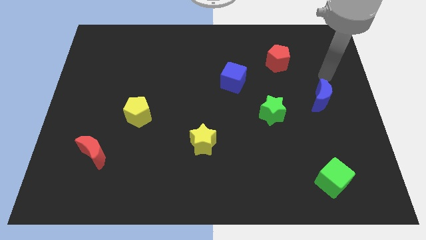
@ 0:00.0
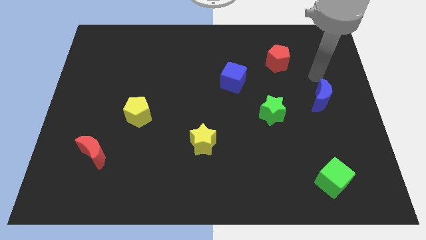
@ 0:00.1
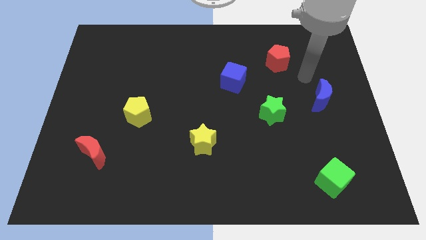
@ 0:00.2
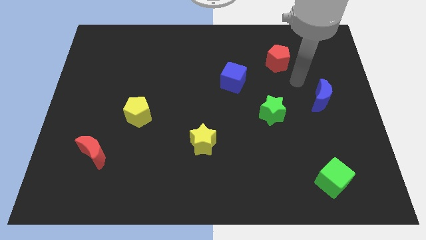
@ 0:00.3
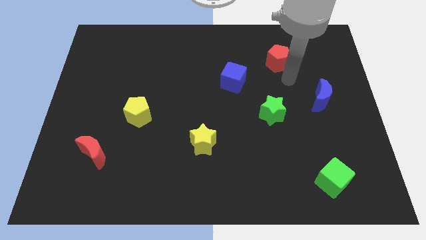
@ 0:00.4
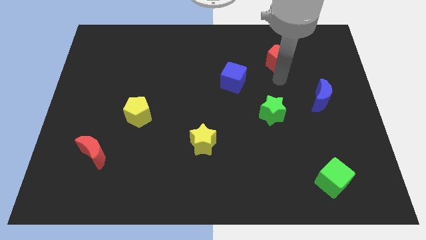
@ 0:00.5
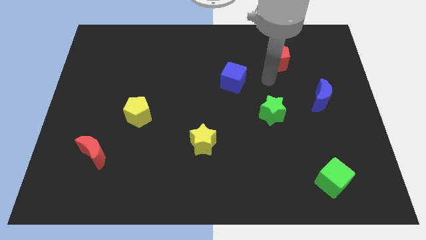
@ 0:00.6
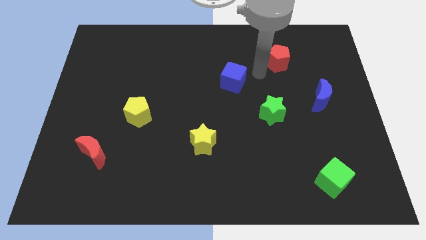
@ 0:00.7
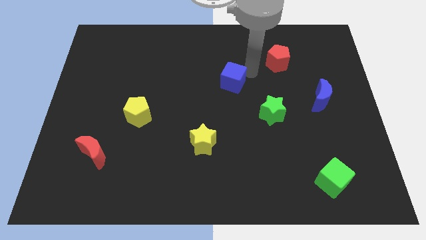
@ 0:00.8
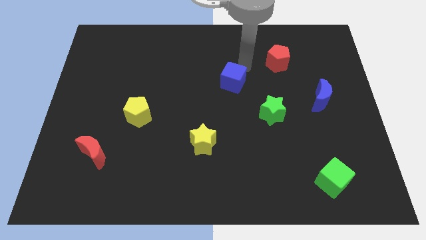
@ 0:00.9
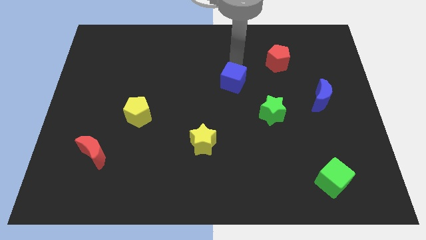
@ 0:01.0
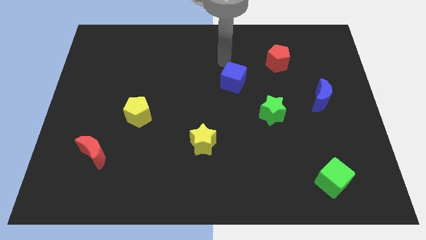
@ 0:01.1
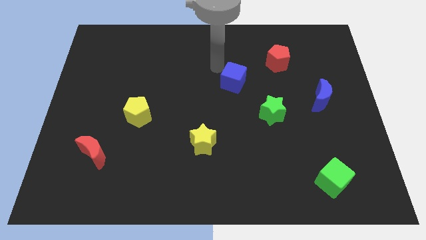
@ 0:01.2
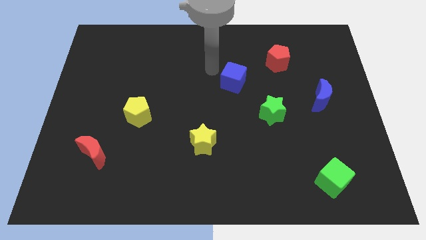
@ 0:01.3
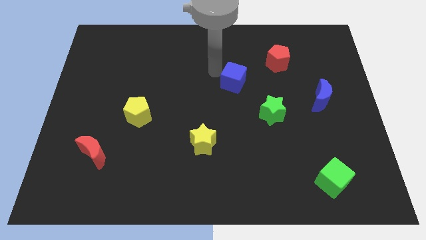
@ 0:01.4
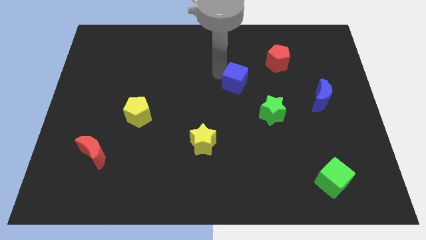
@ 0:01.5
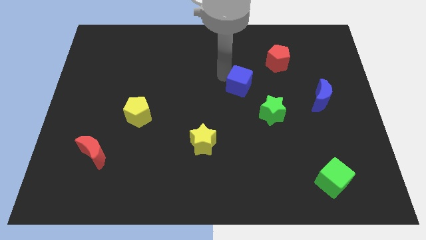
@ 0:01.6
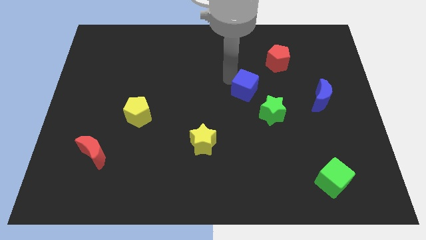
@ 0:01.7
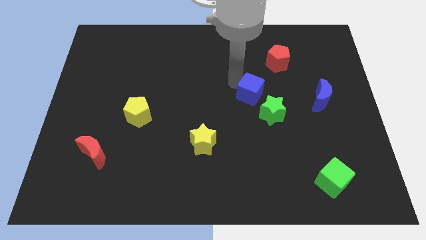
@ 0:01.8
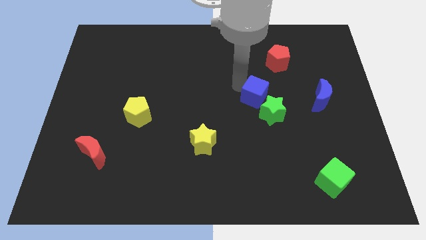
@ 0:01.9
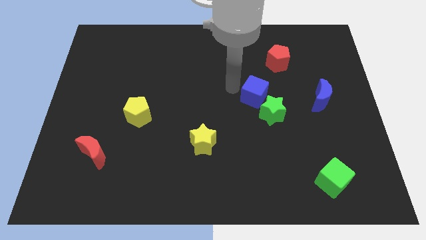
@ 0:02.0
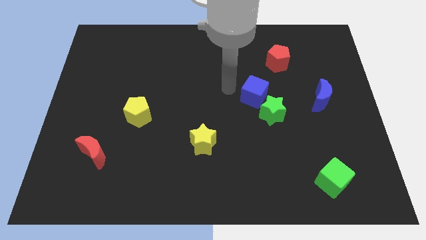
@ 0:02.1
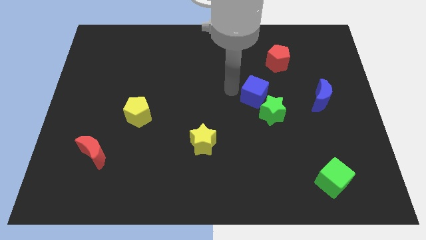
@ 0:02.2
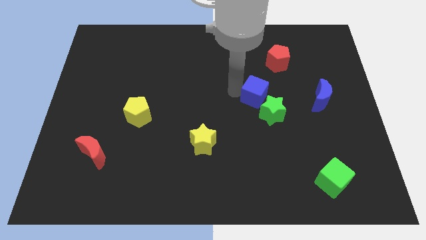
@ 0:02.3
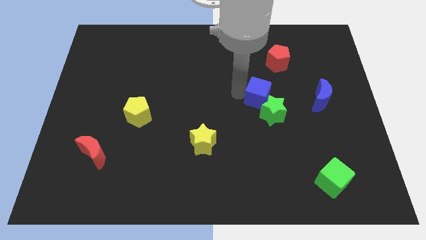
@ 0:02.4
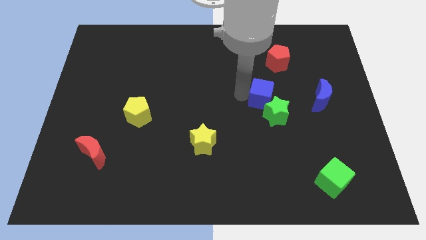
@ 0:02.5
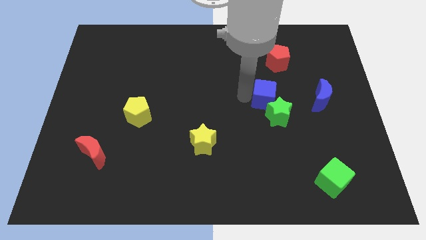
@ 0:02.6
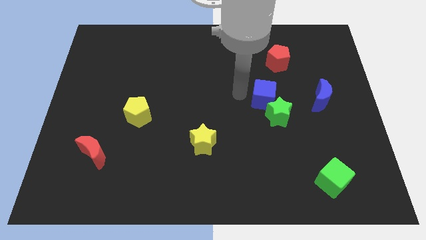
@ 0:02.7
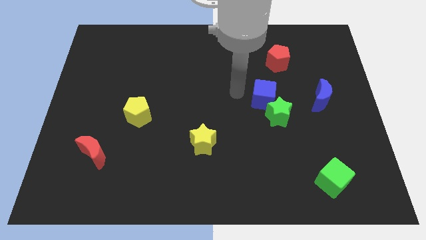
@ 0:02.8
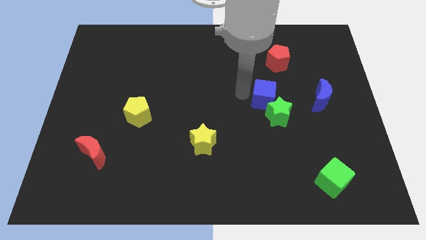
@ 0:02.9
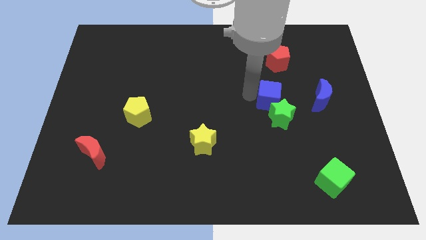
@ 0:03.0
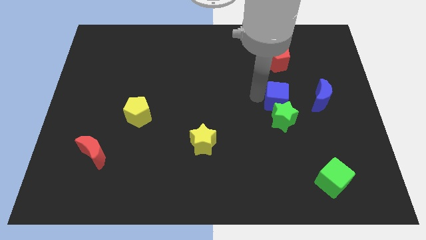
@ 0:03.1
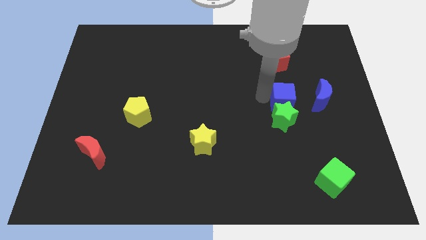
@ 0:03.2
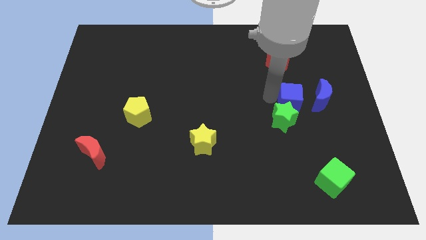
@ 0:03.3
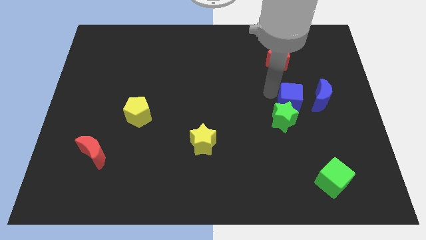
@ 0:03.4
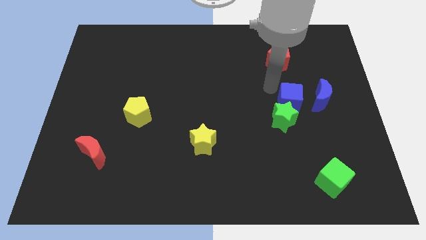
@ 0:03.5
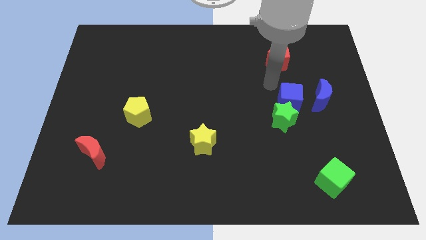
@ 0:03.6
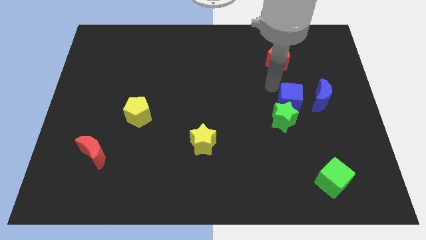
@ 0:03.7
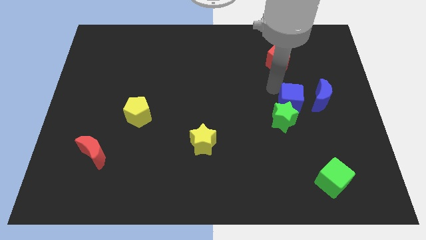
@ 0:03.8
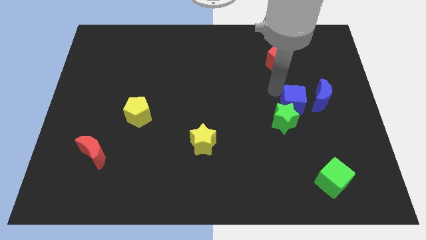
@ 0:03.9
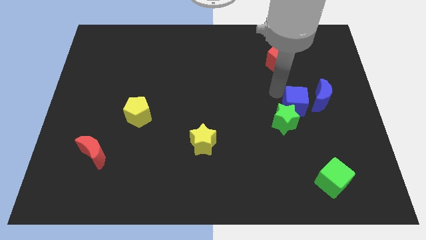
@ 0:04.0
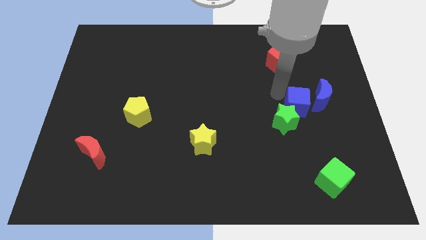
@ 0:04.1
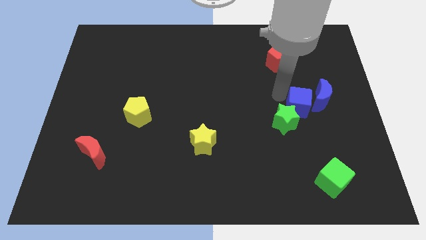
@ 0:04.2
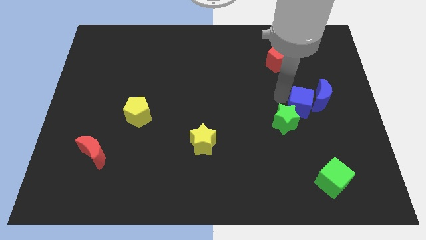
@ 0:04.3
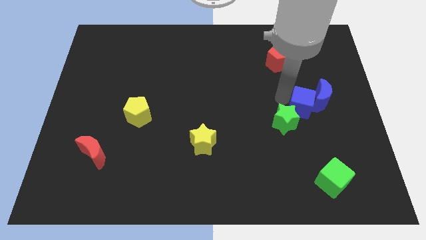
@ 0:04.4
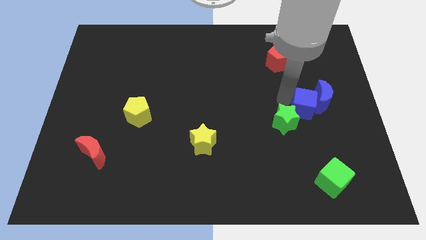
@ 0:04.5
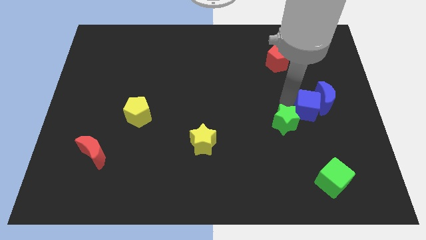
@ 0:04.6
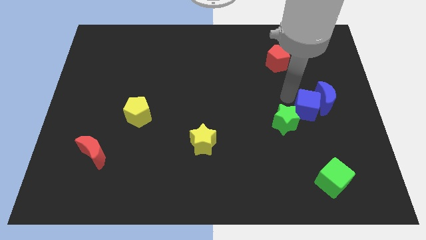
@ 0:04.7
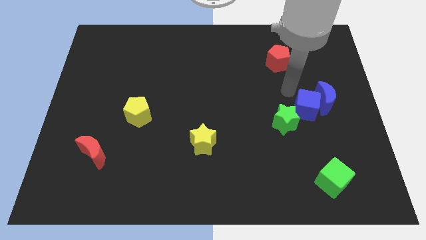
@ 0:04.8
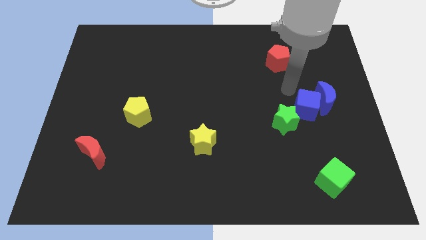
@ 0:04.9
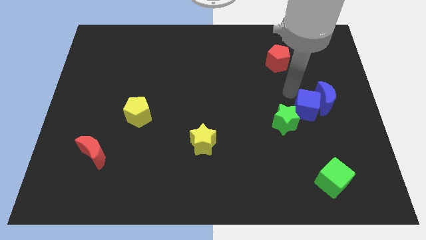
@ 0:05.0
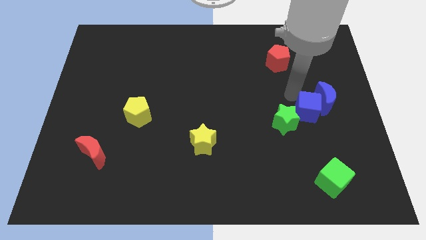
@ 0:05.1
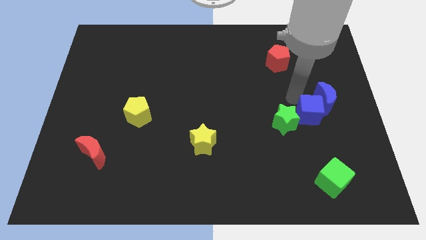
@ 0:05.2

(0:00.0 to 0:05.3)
slide the blue cube to the bottom of the blue moon

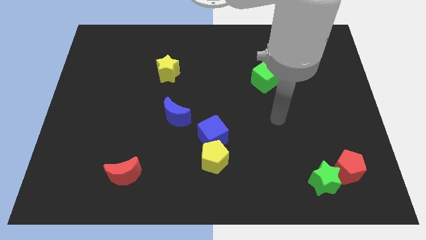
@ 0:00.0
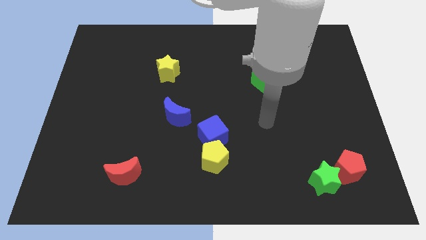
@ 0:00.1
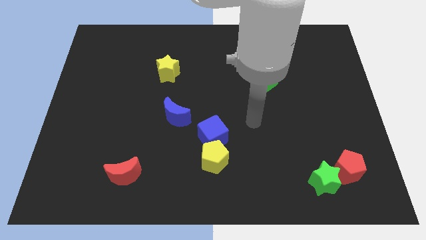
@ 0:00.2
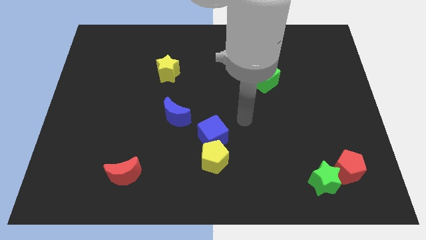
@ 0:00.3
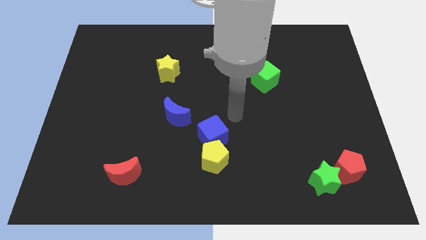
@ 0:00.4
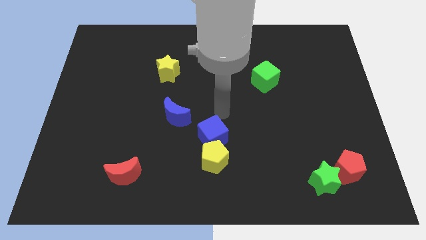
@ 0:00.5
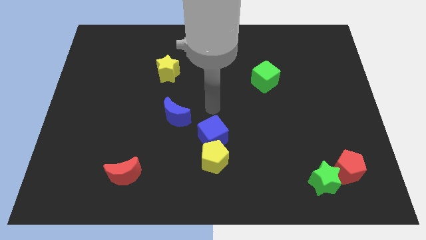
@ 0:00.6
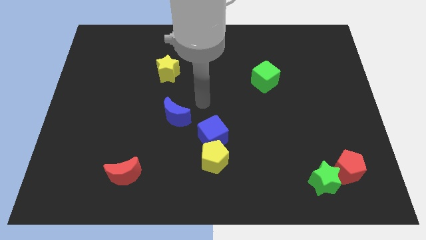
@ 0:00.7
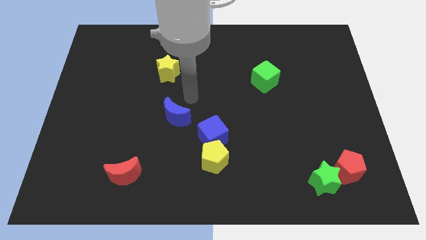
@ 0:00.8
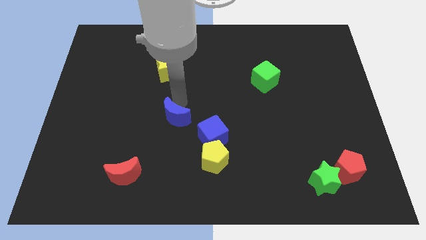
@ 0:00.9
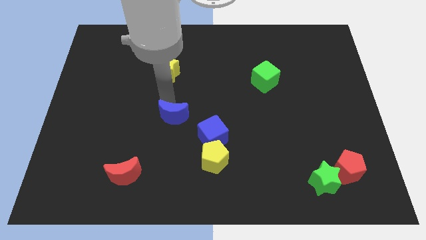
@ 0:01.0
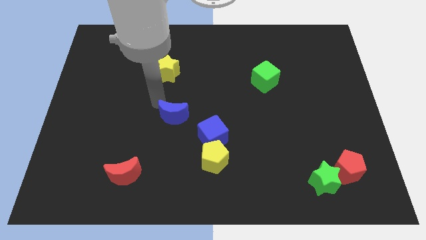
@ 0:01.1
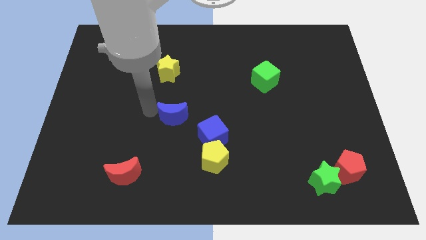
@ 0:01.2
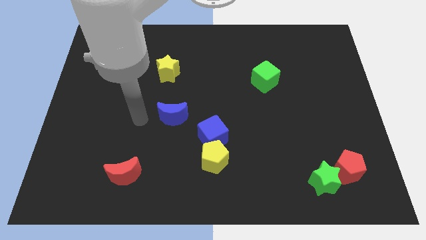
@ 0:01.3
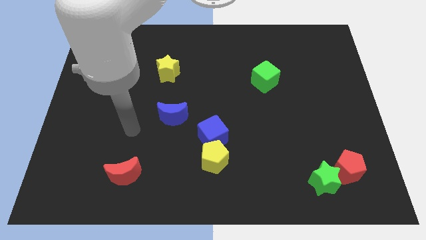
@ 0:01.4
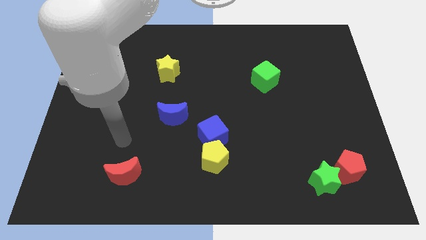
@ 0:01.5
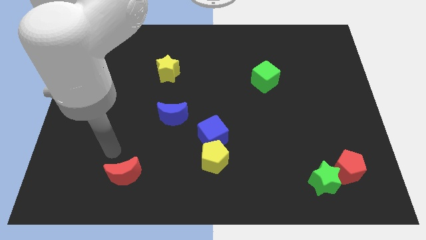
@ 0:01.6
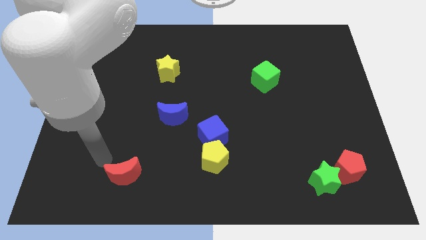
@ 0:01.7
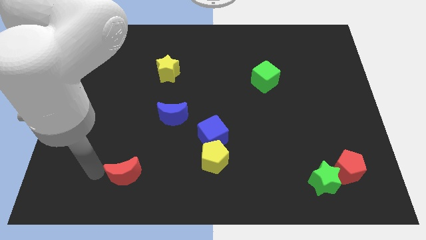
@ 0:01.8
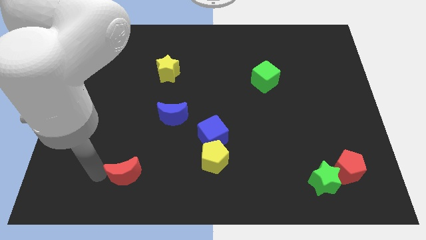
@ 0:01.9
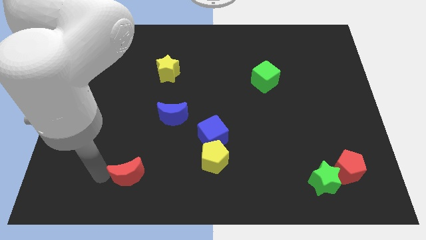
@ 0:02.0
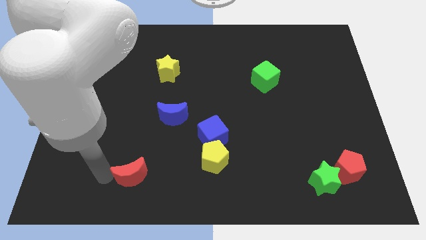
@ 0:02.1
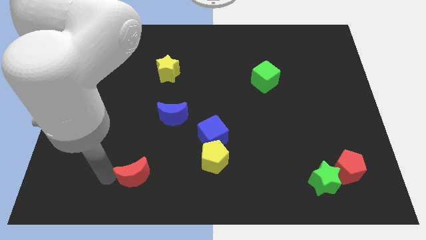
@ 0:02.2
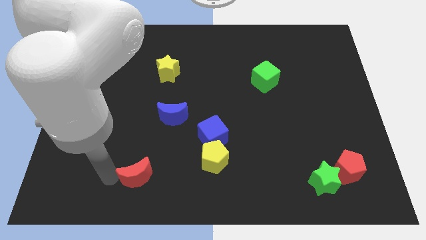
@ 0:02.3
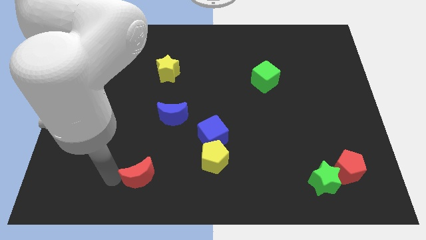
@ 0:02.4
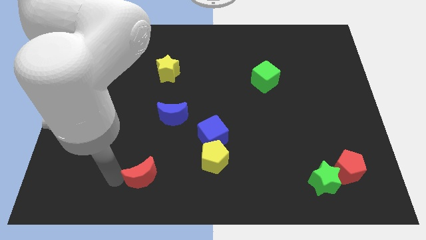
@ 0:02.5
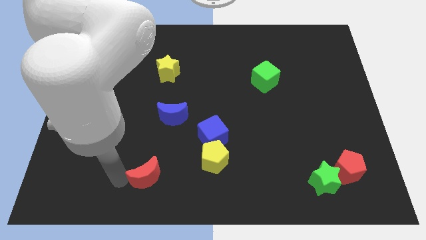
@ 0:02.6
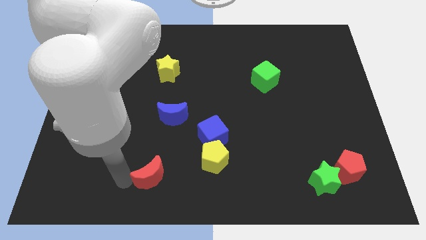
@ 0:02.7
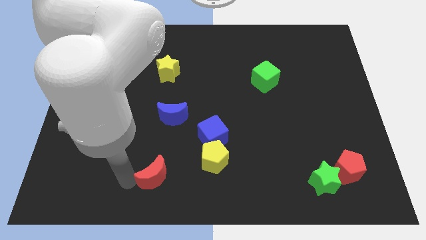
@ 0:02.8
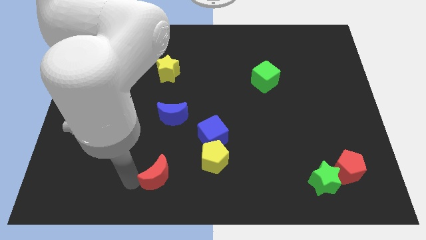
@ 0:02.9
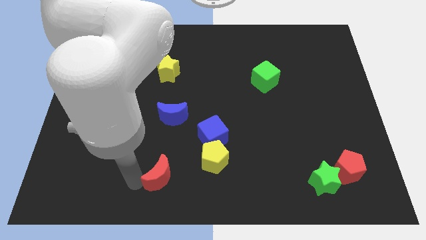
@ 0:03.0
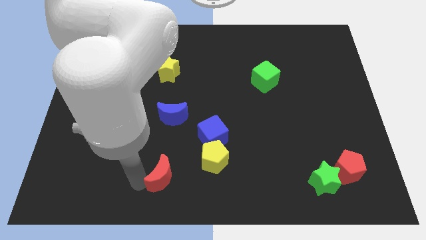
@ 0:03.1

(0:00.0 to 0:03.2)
slide the red moon to the bottom left side of the yellow pentagon

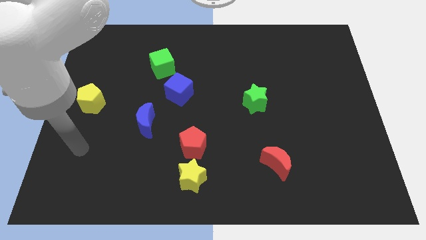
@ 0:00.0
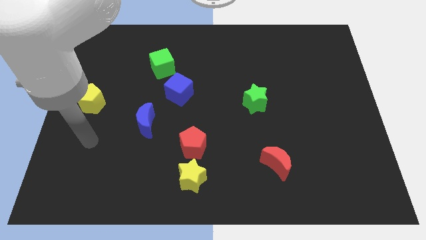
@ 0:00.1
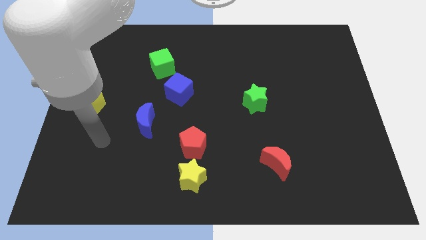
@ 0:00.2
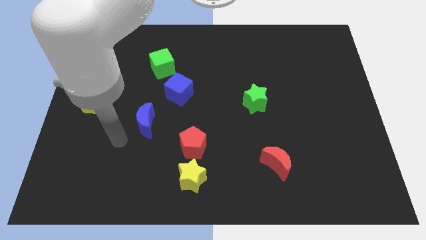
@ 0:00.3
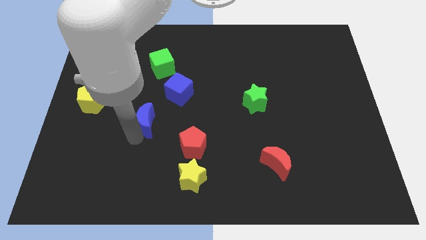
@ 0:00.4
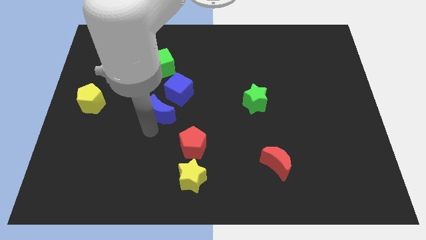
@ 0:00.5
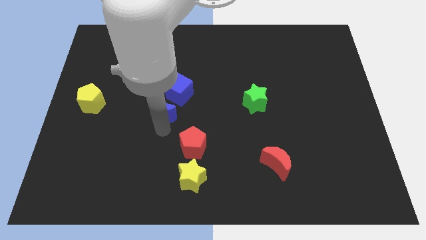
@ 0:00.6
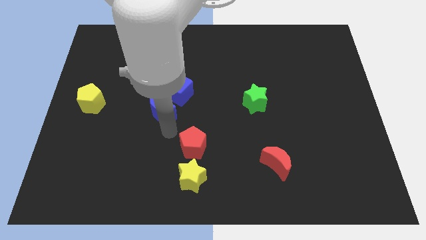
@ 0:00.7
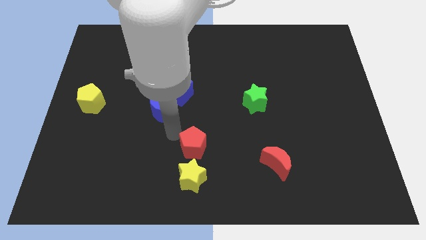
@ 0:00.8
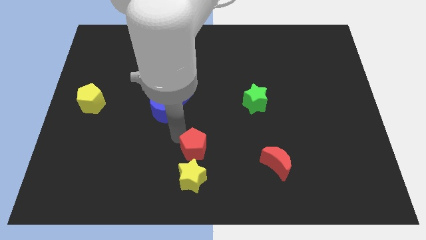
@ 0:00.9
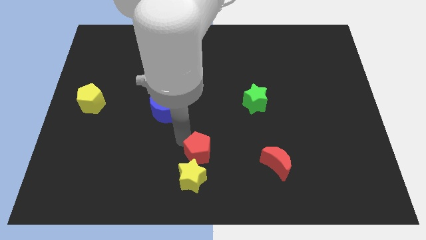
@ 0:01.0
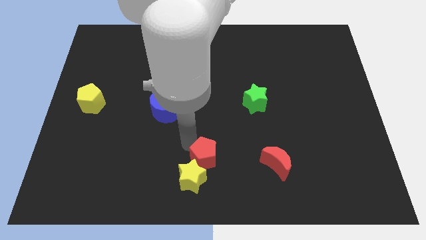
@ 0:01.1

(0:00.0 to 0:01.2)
push the red pentagon to the left of the red moon
